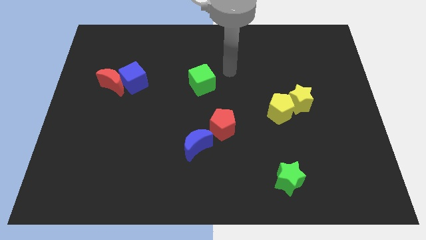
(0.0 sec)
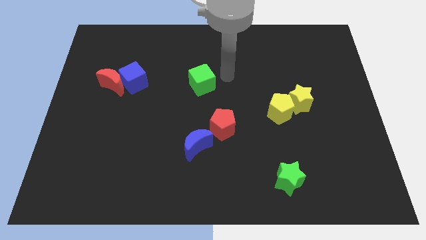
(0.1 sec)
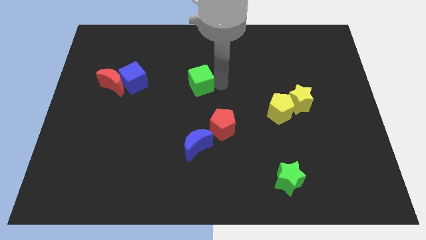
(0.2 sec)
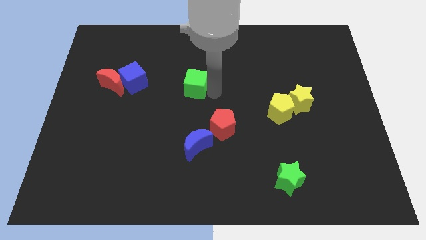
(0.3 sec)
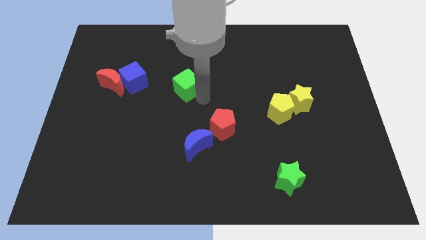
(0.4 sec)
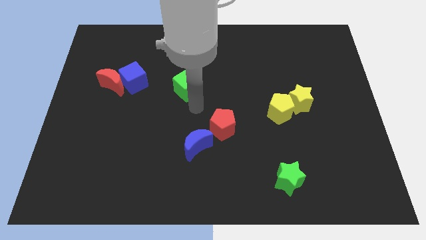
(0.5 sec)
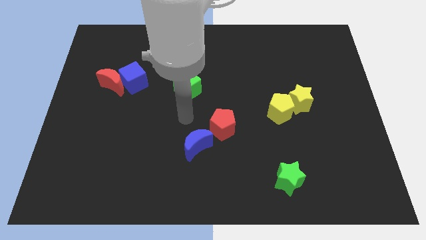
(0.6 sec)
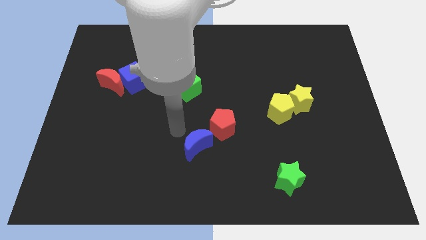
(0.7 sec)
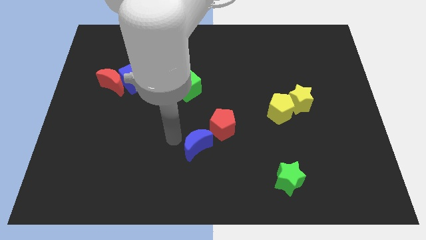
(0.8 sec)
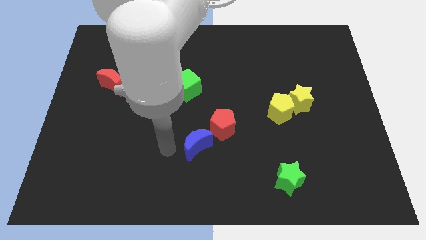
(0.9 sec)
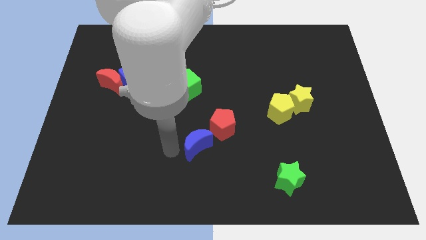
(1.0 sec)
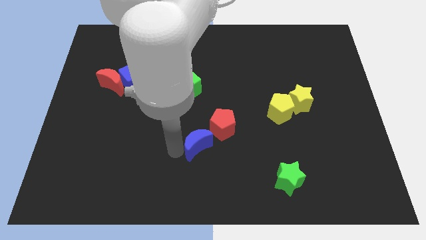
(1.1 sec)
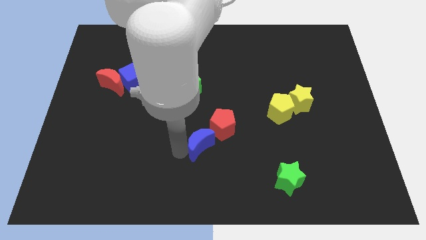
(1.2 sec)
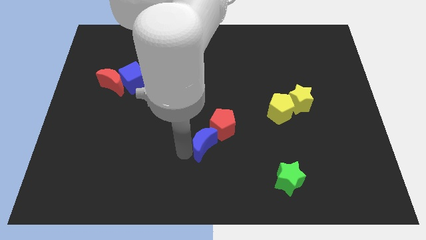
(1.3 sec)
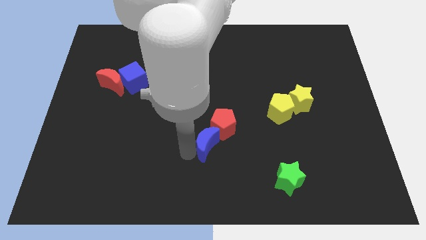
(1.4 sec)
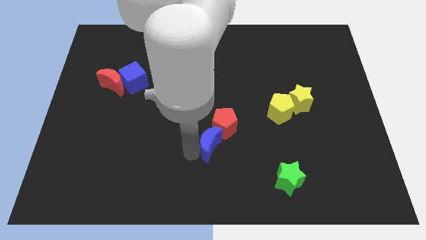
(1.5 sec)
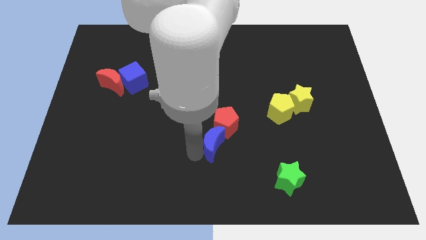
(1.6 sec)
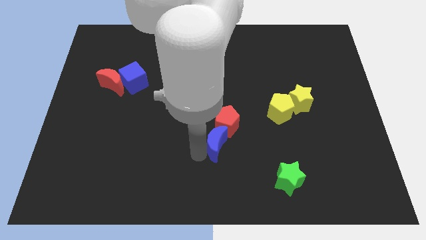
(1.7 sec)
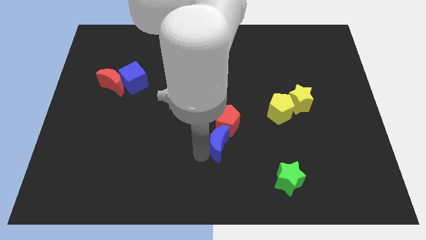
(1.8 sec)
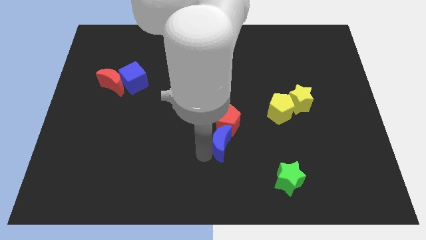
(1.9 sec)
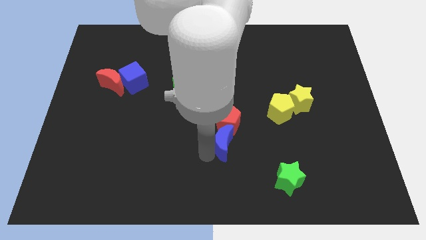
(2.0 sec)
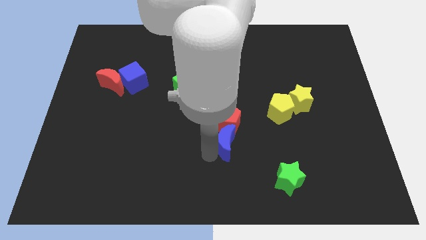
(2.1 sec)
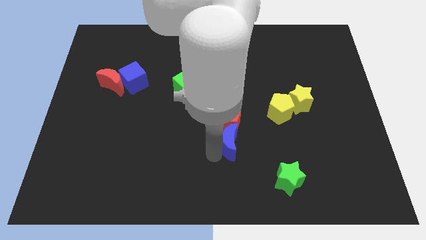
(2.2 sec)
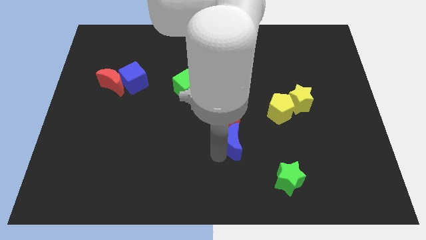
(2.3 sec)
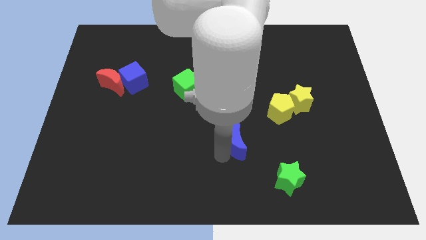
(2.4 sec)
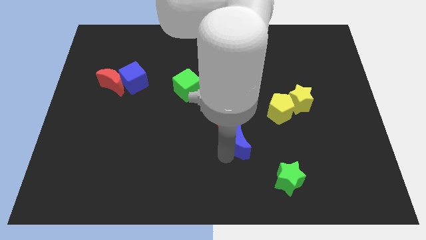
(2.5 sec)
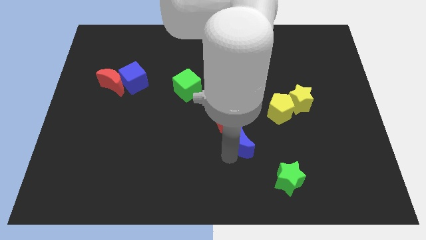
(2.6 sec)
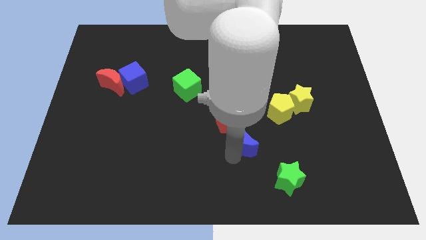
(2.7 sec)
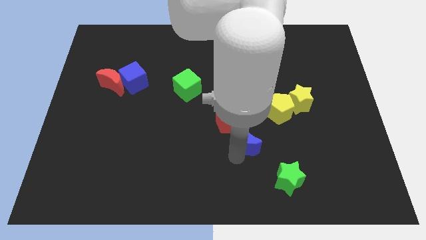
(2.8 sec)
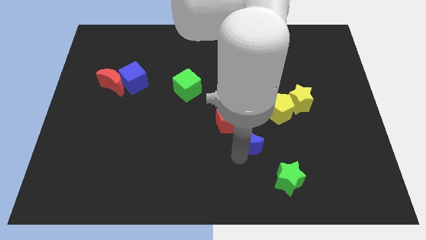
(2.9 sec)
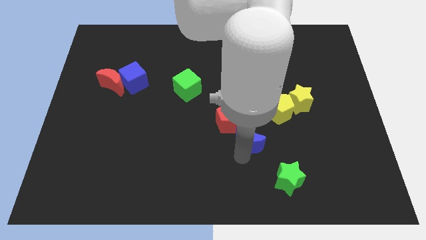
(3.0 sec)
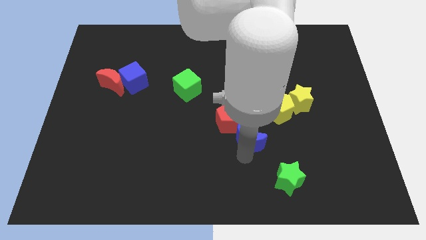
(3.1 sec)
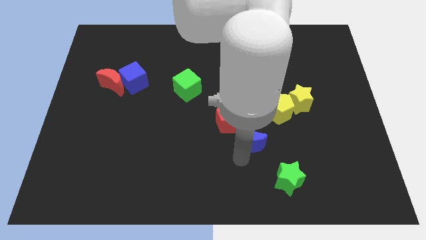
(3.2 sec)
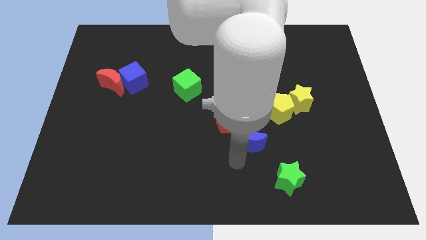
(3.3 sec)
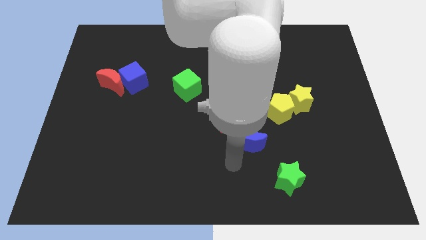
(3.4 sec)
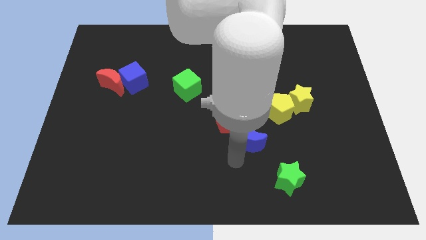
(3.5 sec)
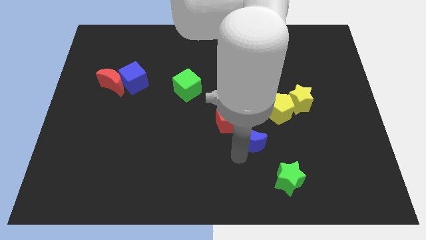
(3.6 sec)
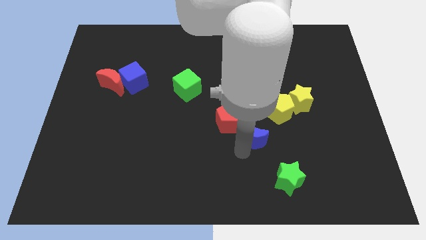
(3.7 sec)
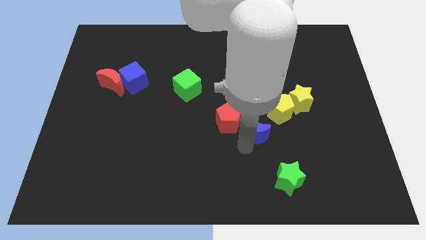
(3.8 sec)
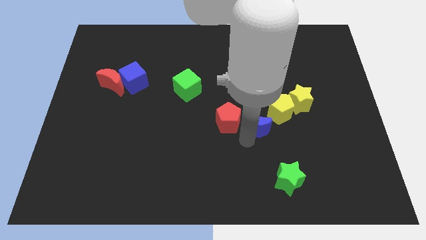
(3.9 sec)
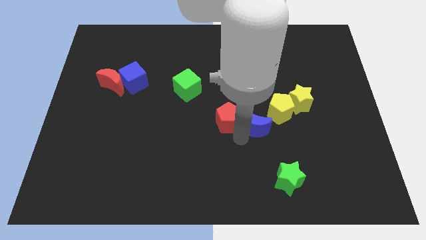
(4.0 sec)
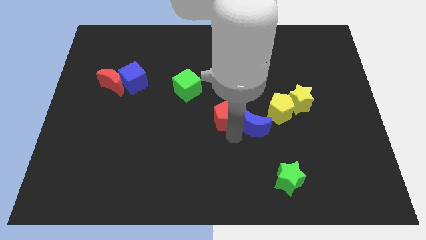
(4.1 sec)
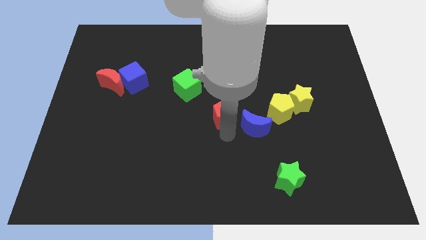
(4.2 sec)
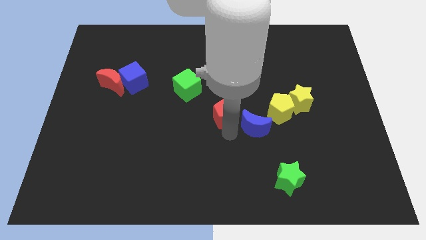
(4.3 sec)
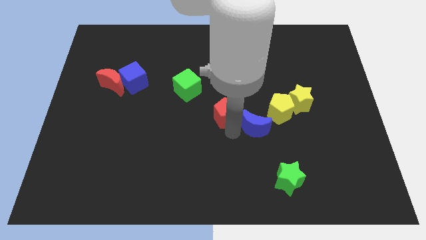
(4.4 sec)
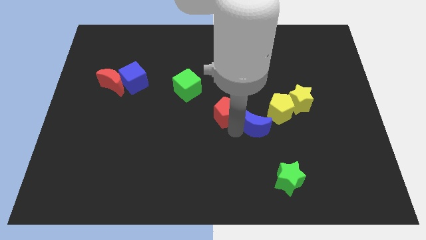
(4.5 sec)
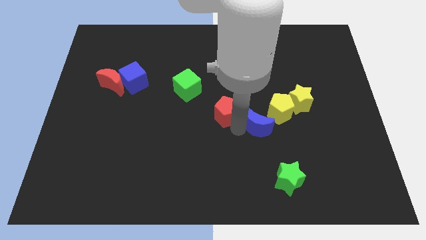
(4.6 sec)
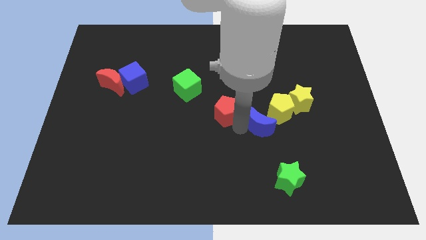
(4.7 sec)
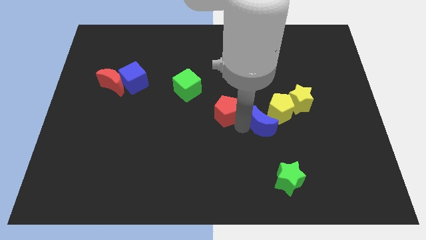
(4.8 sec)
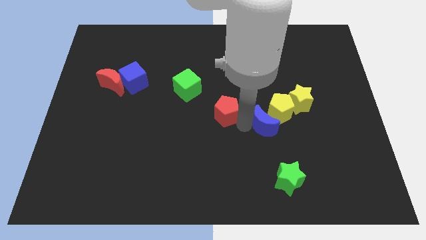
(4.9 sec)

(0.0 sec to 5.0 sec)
put the blue moon towards the yellow pentagon

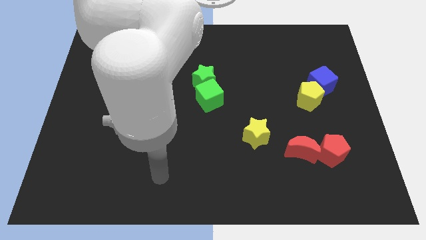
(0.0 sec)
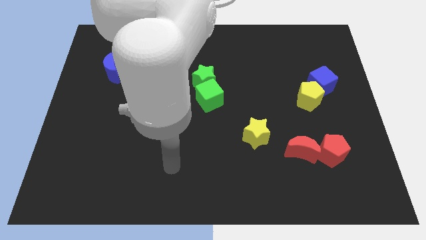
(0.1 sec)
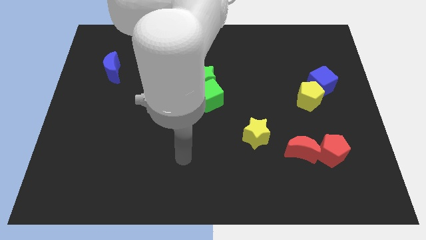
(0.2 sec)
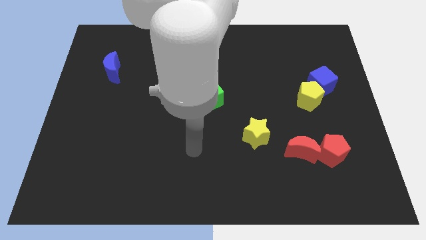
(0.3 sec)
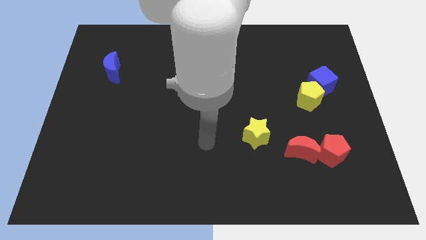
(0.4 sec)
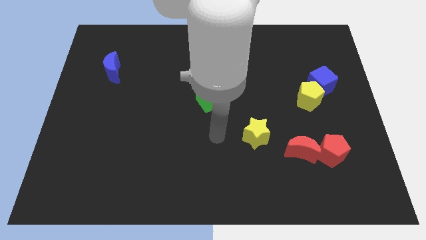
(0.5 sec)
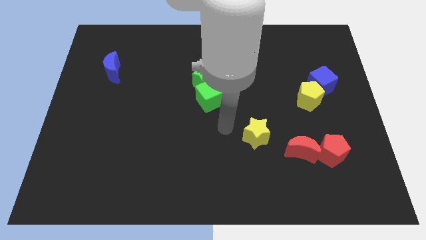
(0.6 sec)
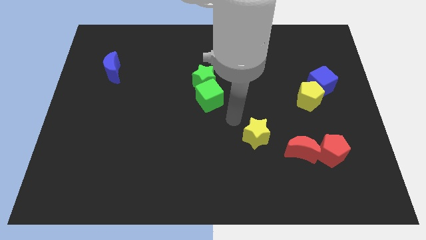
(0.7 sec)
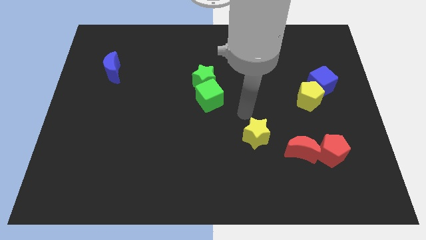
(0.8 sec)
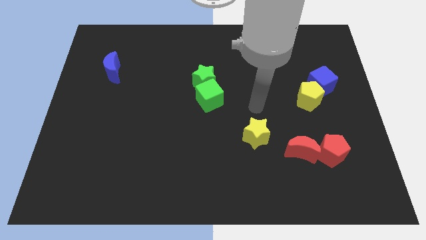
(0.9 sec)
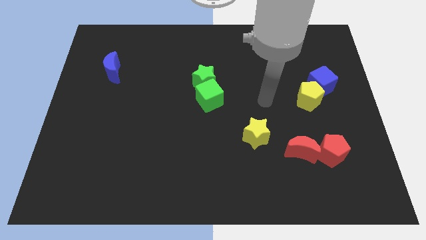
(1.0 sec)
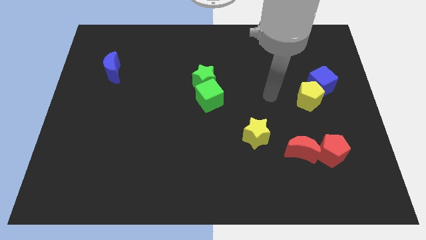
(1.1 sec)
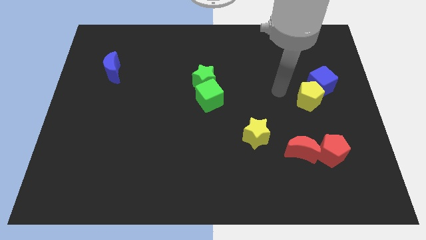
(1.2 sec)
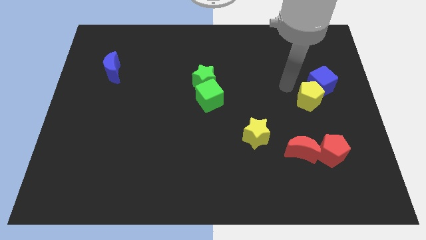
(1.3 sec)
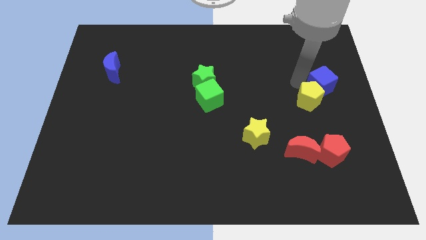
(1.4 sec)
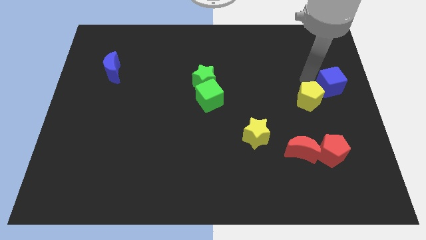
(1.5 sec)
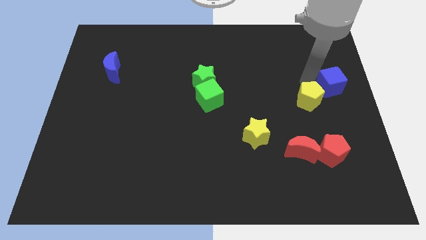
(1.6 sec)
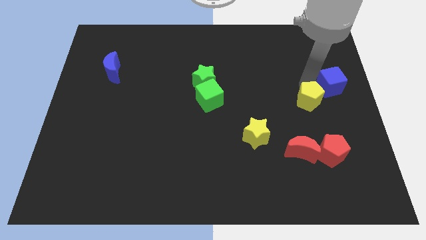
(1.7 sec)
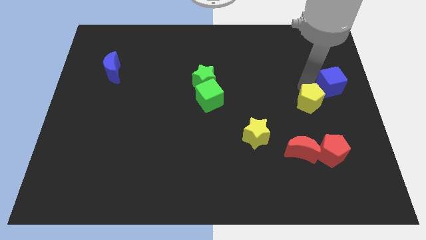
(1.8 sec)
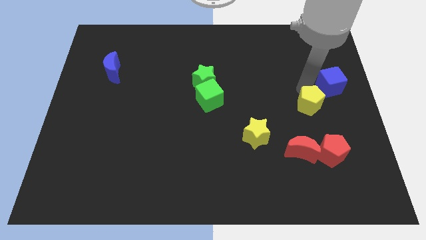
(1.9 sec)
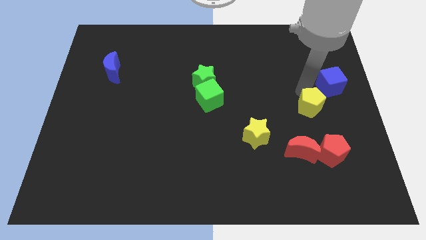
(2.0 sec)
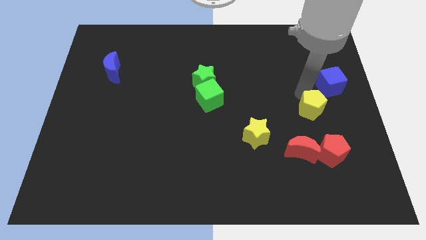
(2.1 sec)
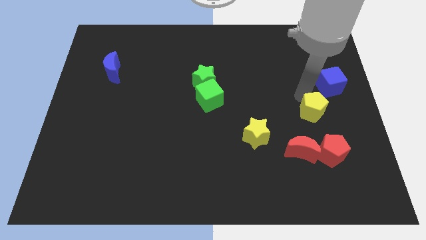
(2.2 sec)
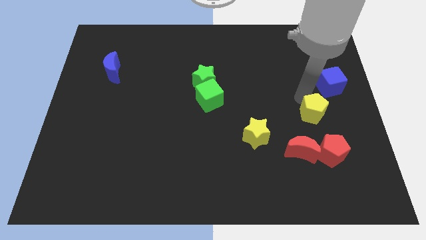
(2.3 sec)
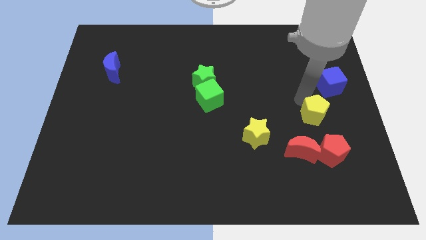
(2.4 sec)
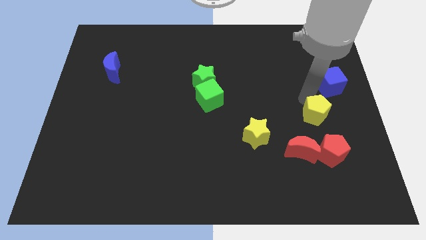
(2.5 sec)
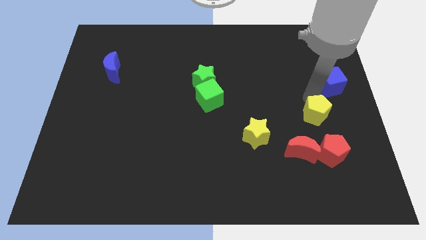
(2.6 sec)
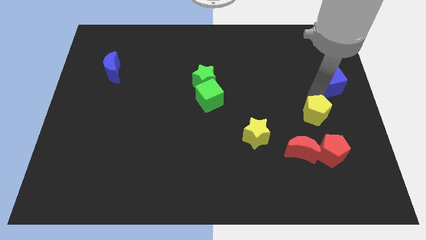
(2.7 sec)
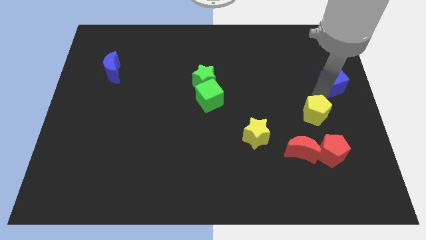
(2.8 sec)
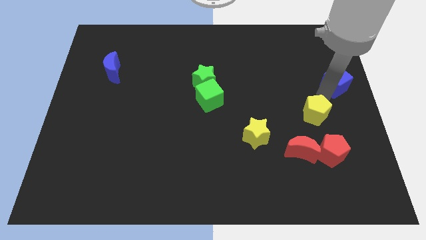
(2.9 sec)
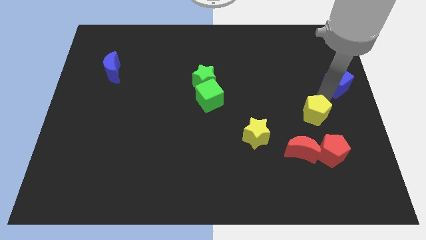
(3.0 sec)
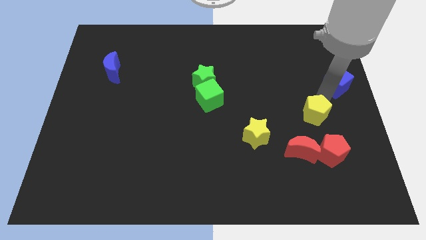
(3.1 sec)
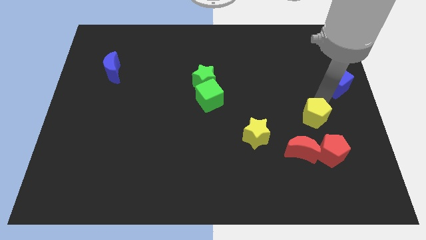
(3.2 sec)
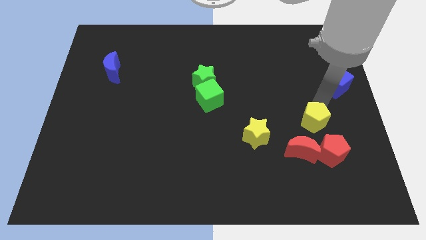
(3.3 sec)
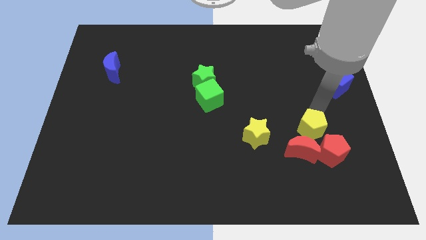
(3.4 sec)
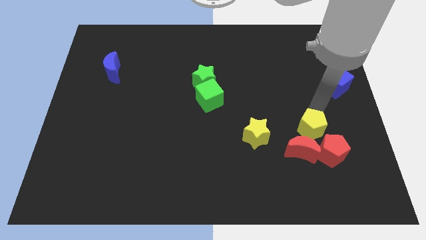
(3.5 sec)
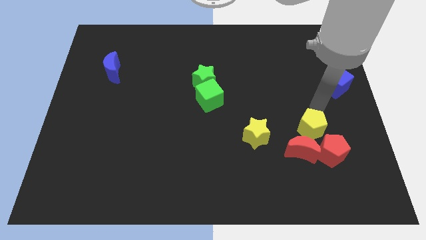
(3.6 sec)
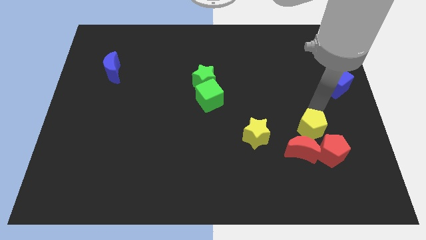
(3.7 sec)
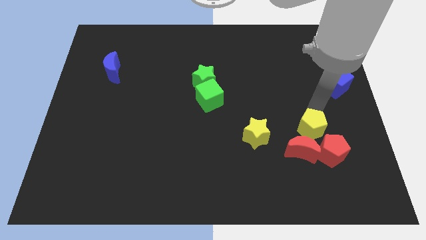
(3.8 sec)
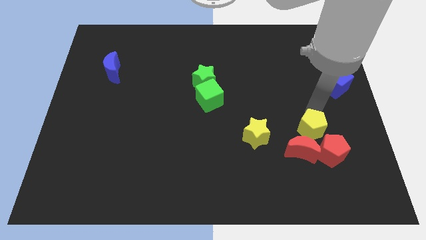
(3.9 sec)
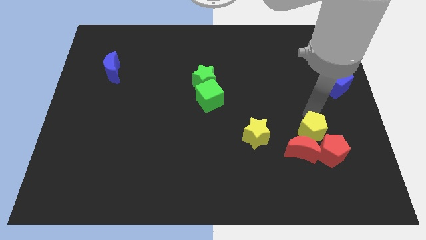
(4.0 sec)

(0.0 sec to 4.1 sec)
slide the yellow pentagon next to the red moon
